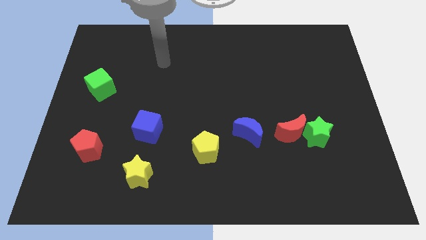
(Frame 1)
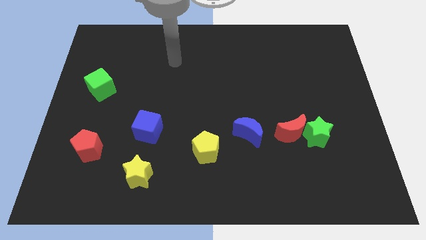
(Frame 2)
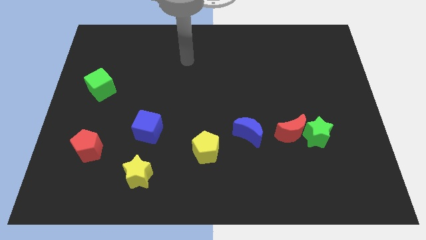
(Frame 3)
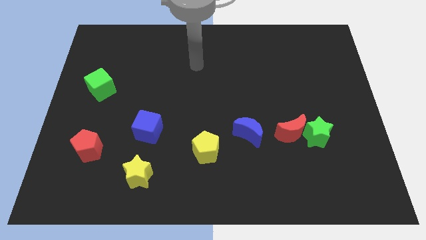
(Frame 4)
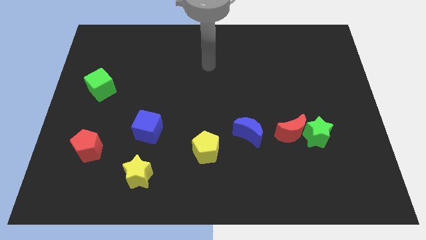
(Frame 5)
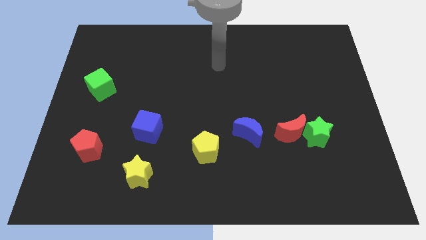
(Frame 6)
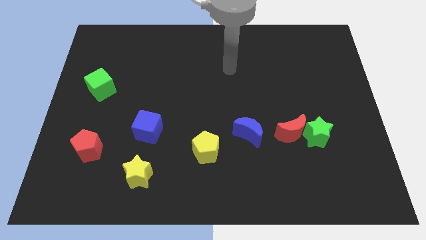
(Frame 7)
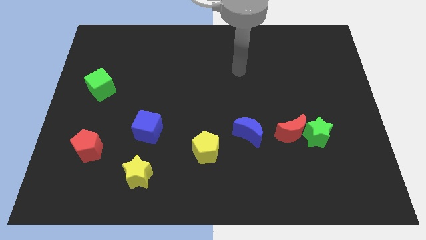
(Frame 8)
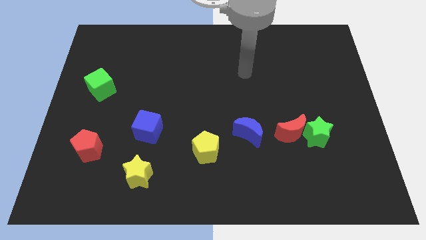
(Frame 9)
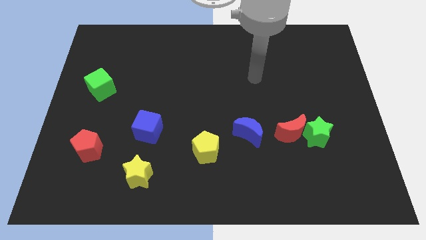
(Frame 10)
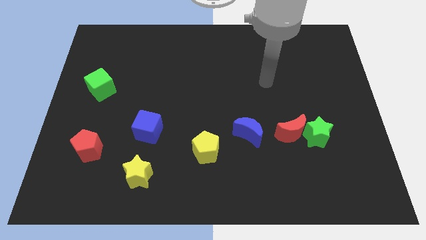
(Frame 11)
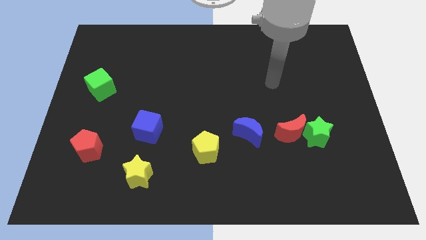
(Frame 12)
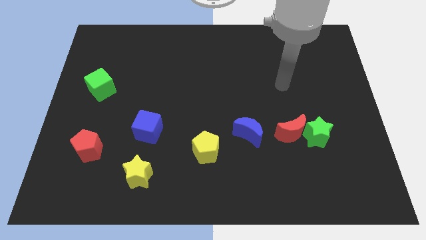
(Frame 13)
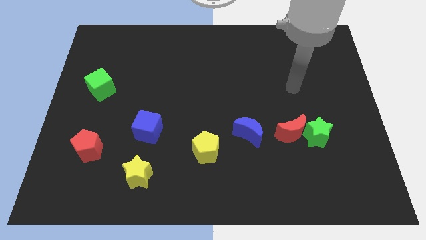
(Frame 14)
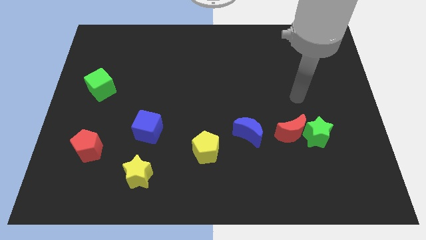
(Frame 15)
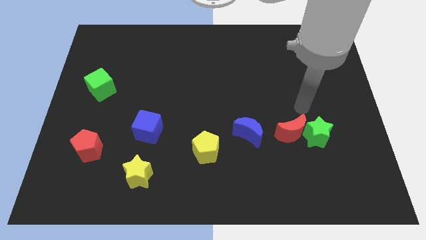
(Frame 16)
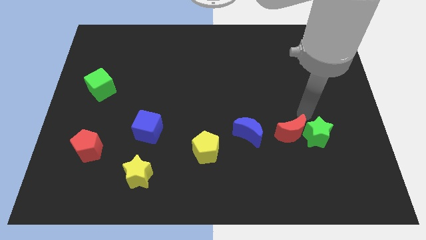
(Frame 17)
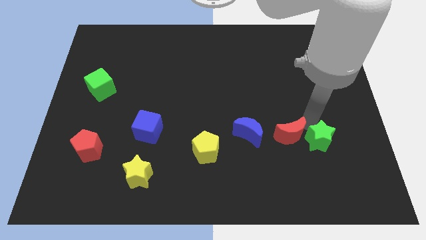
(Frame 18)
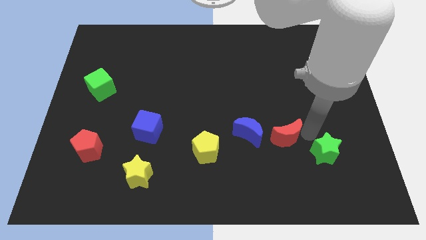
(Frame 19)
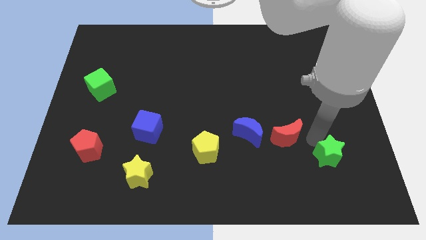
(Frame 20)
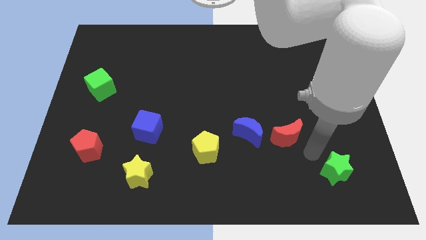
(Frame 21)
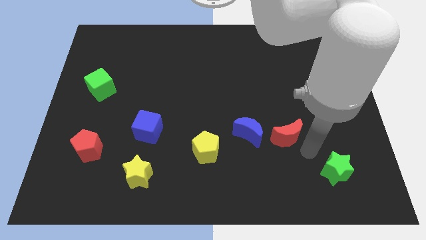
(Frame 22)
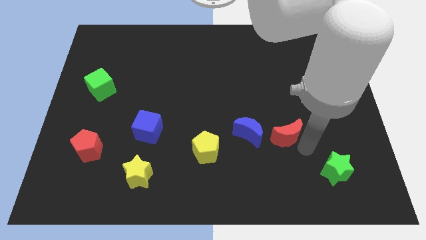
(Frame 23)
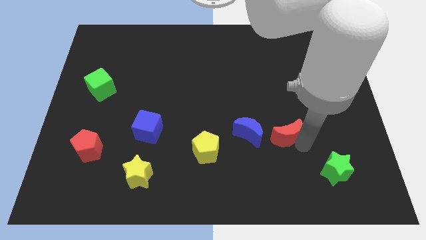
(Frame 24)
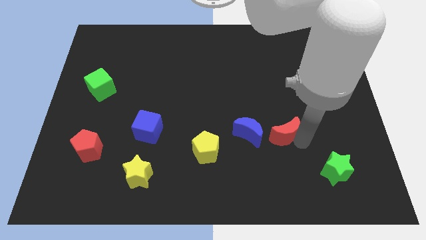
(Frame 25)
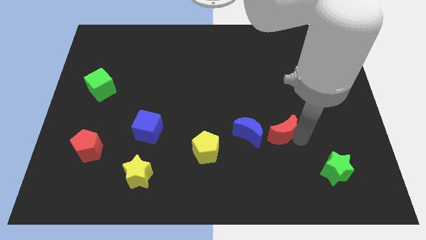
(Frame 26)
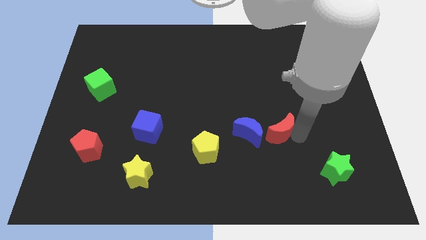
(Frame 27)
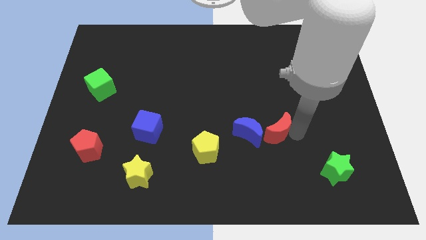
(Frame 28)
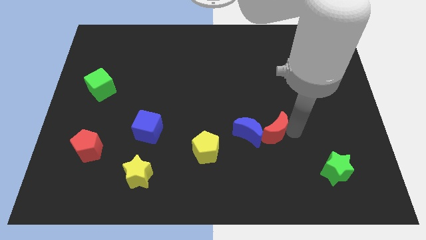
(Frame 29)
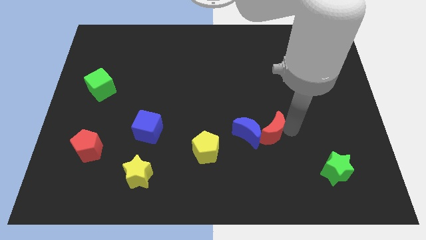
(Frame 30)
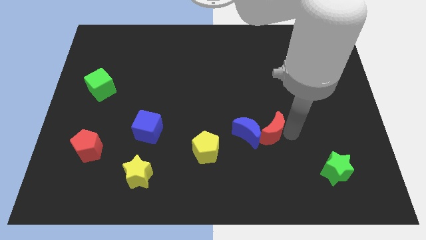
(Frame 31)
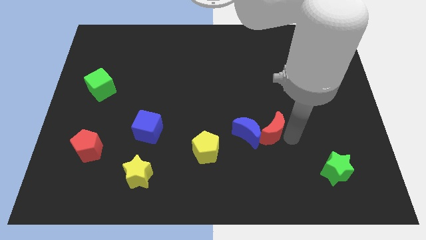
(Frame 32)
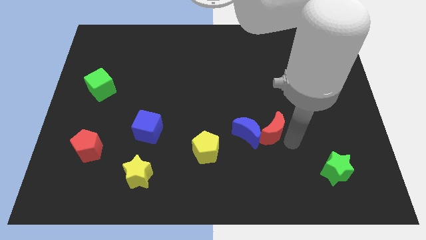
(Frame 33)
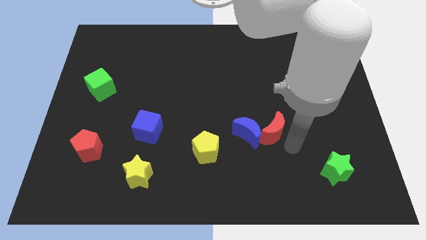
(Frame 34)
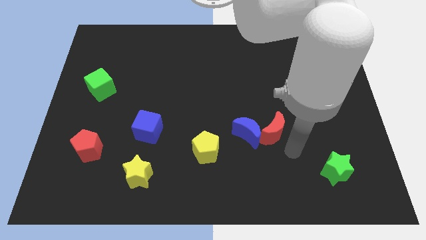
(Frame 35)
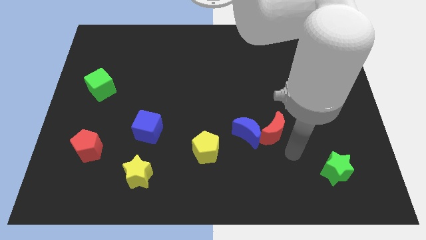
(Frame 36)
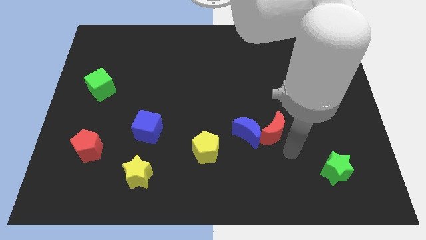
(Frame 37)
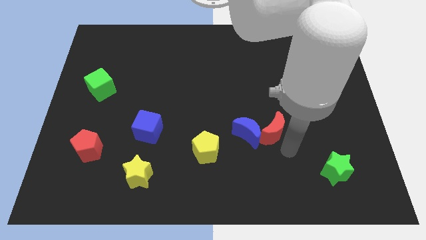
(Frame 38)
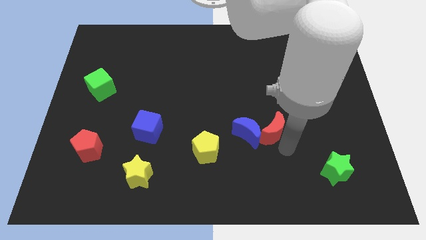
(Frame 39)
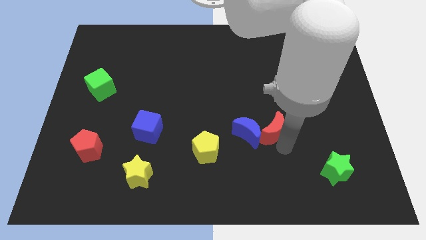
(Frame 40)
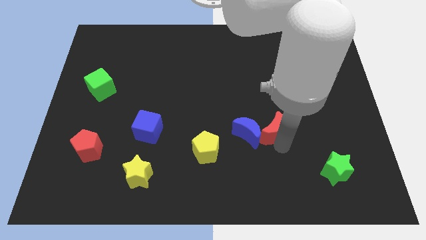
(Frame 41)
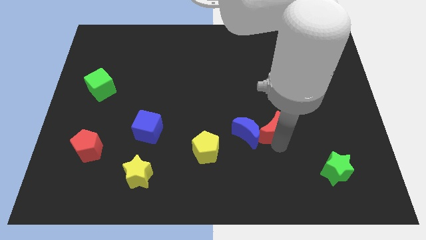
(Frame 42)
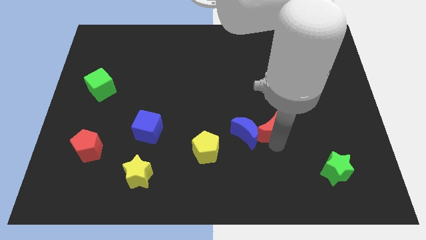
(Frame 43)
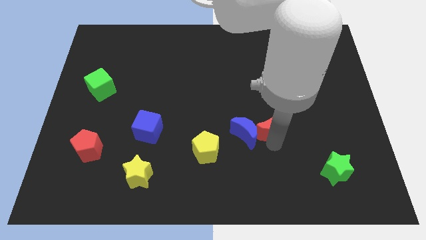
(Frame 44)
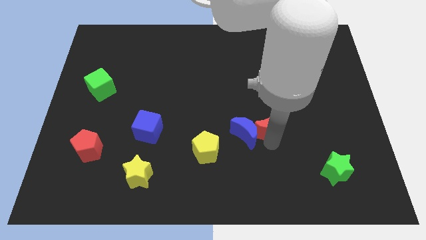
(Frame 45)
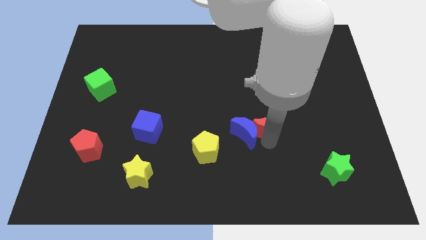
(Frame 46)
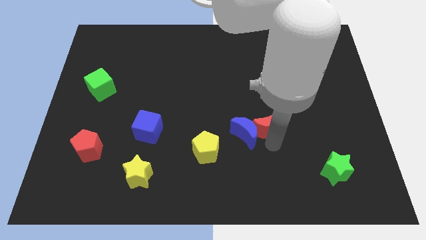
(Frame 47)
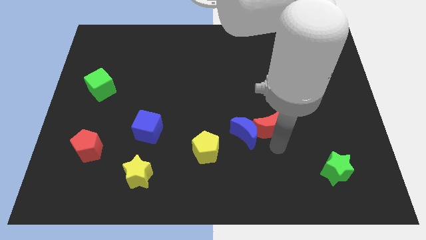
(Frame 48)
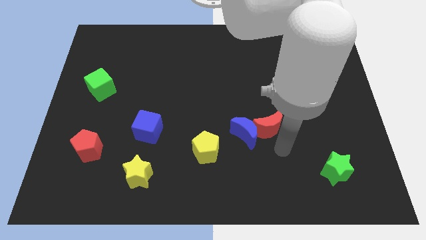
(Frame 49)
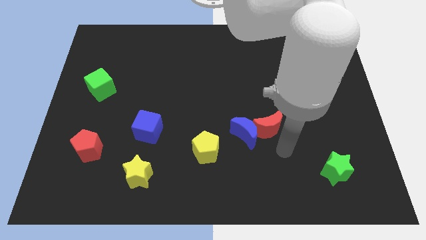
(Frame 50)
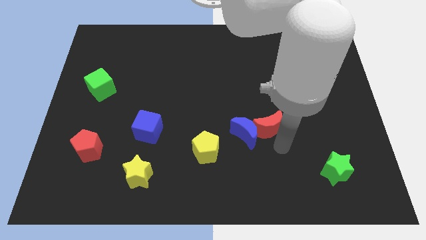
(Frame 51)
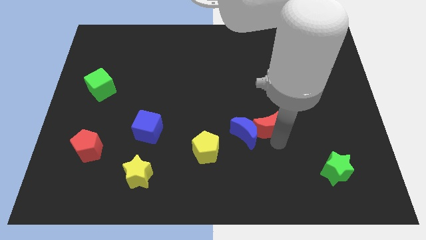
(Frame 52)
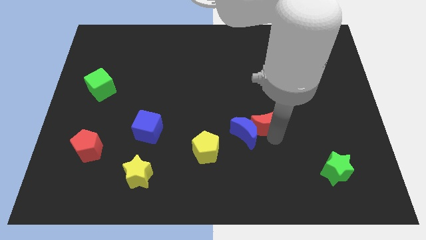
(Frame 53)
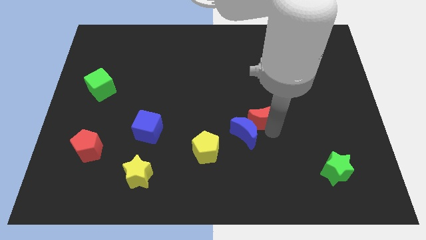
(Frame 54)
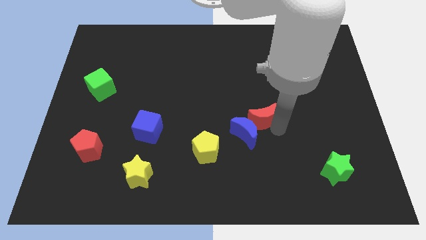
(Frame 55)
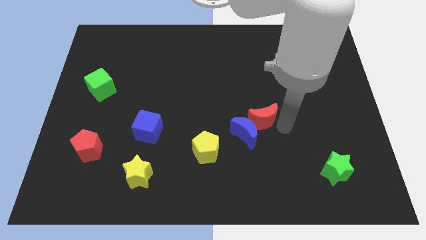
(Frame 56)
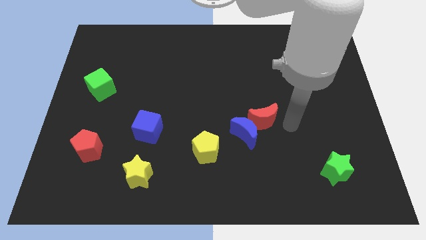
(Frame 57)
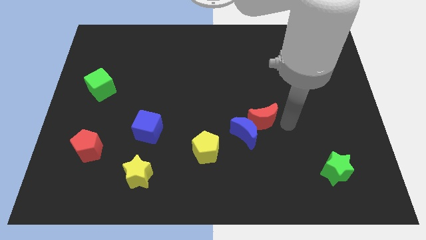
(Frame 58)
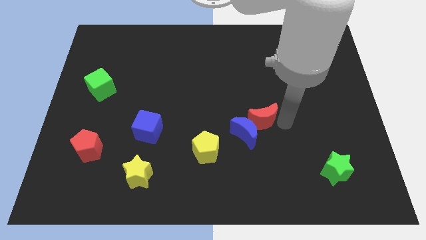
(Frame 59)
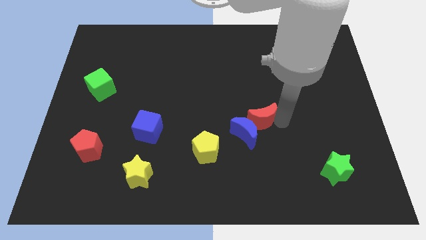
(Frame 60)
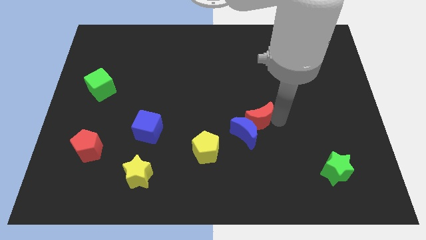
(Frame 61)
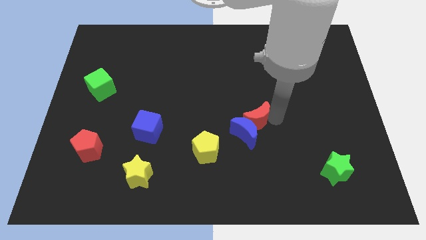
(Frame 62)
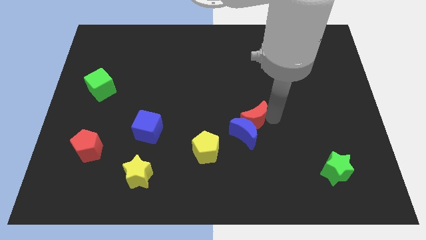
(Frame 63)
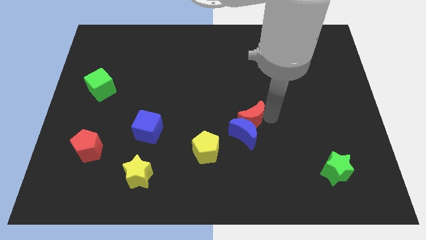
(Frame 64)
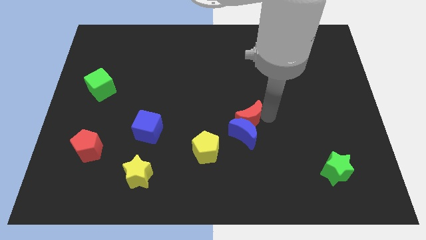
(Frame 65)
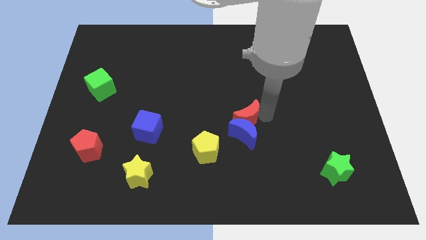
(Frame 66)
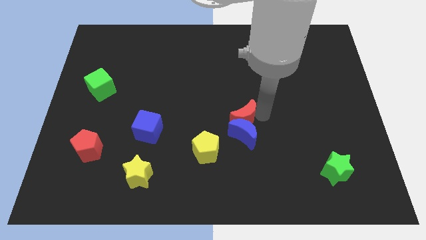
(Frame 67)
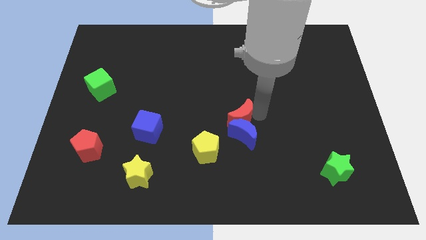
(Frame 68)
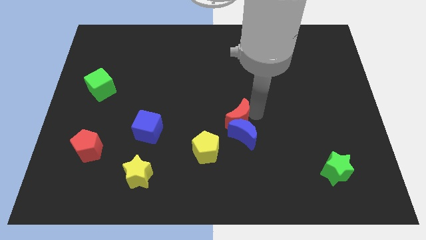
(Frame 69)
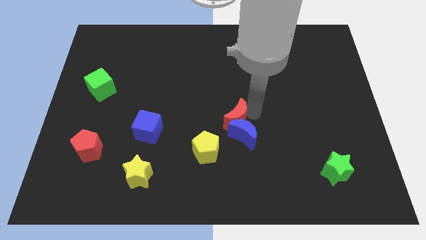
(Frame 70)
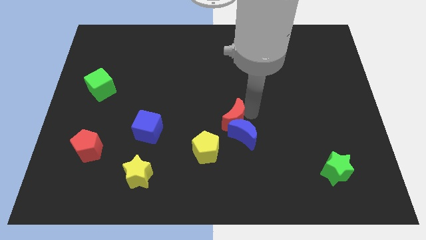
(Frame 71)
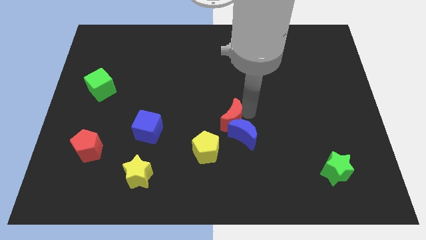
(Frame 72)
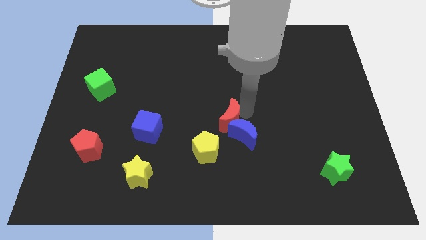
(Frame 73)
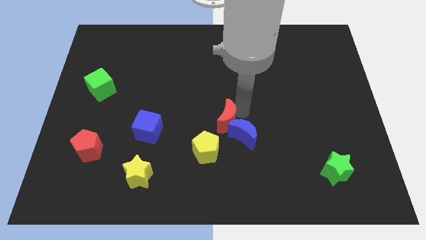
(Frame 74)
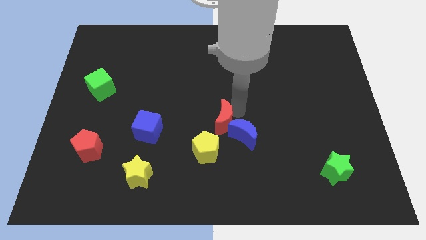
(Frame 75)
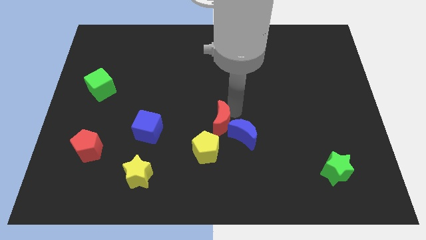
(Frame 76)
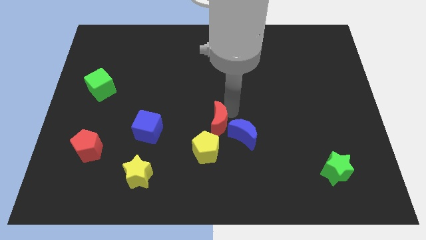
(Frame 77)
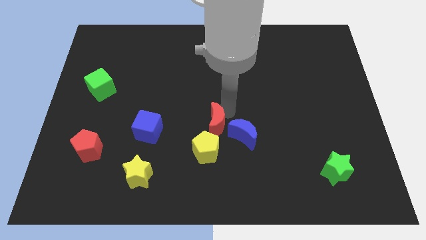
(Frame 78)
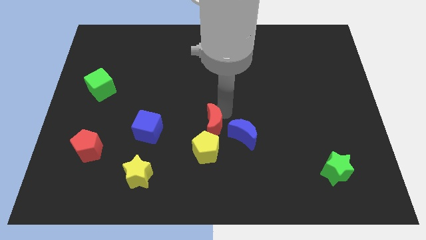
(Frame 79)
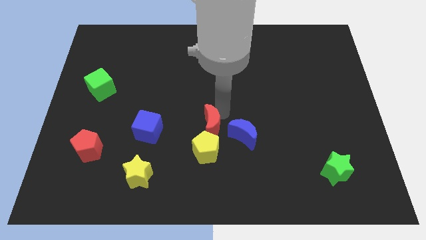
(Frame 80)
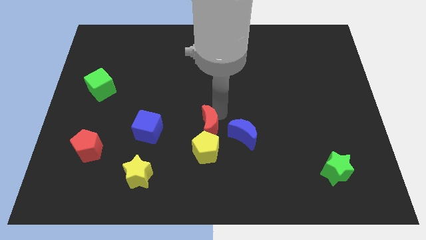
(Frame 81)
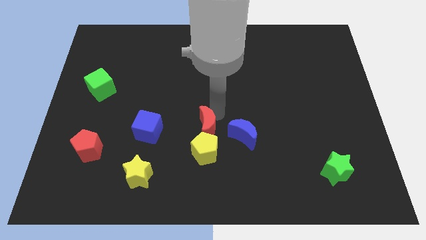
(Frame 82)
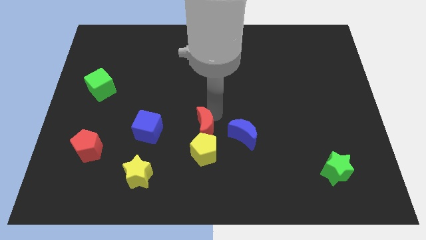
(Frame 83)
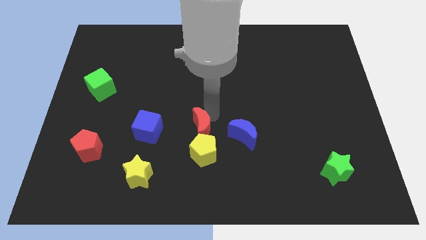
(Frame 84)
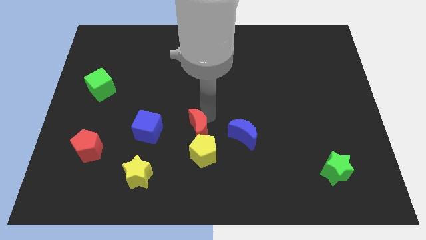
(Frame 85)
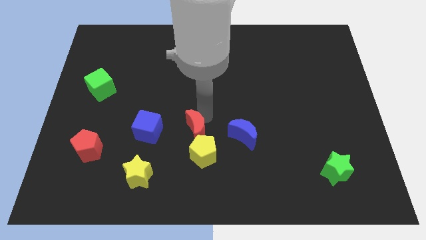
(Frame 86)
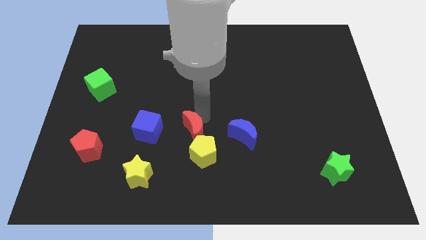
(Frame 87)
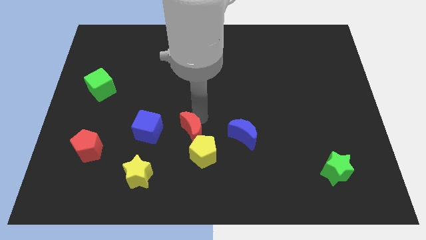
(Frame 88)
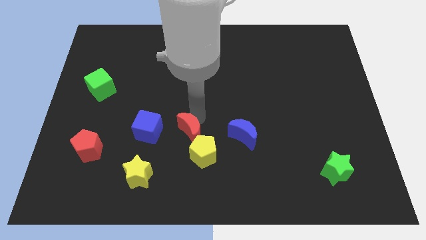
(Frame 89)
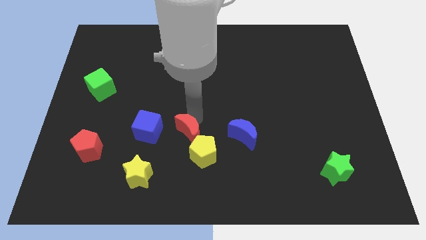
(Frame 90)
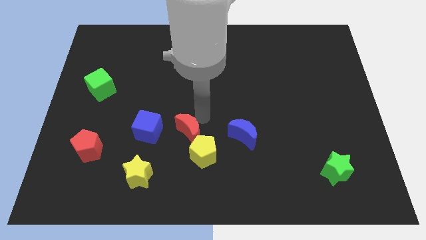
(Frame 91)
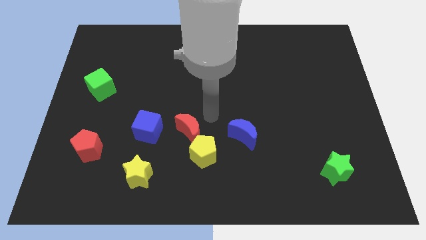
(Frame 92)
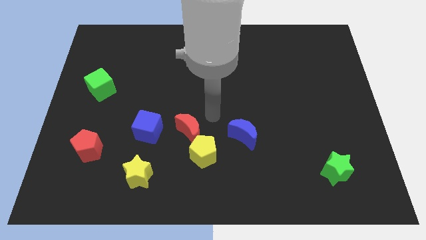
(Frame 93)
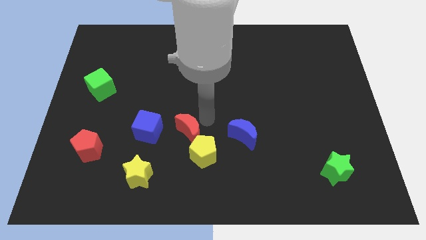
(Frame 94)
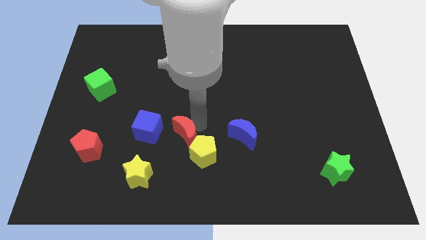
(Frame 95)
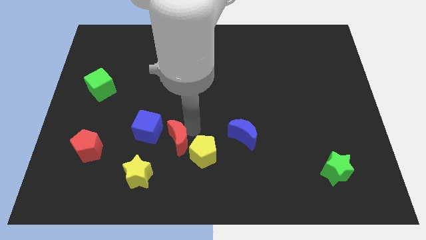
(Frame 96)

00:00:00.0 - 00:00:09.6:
push the red moon left of the yellow pentagon
